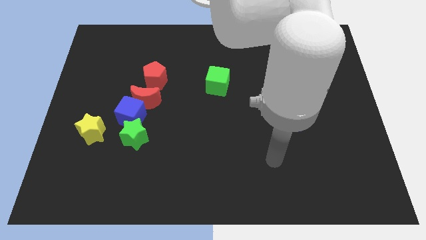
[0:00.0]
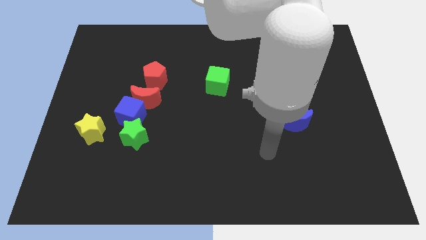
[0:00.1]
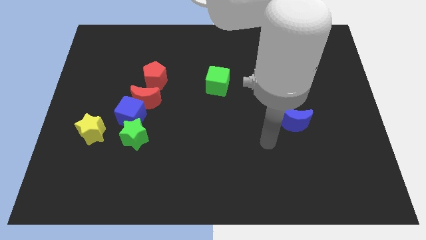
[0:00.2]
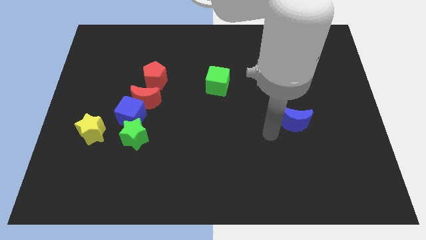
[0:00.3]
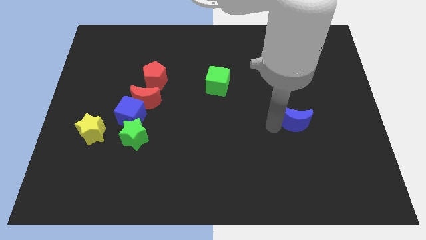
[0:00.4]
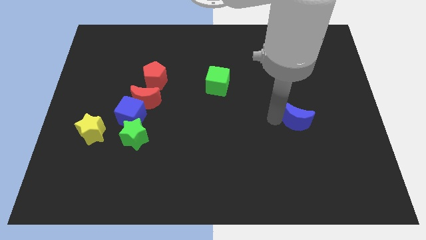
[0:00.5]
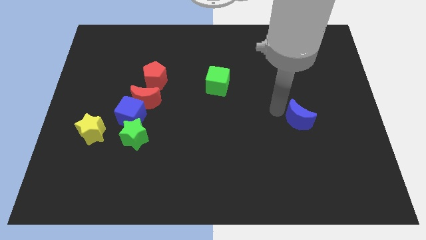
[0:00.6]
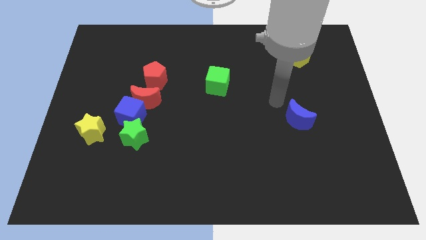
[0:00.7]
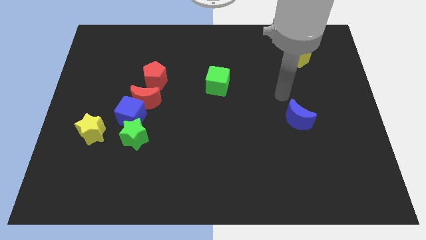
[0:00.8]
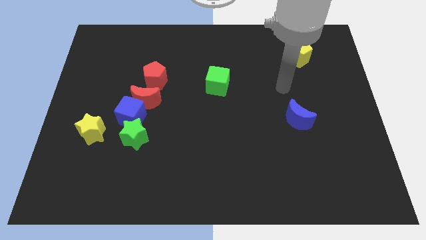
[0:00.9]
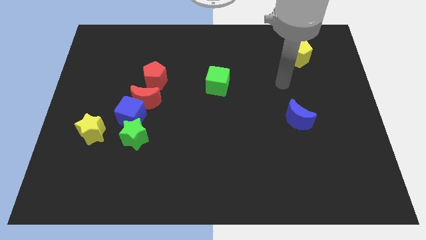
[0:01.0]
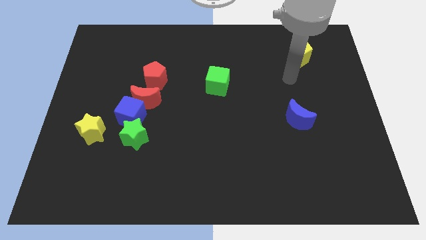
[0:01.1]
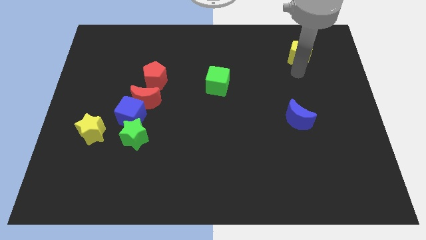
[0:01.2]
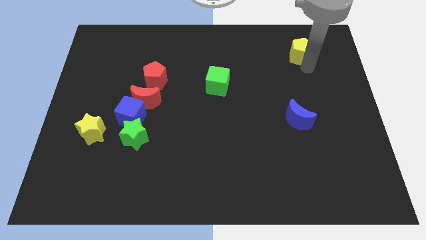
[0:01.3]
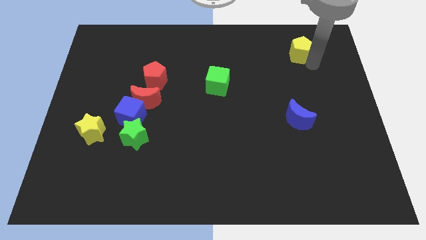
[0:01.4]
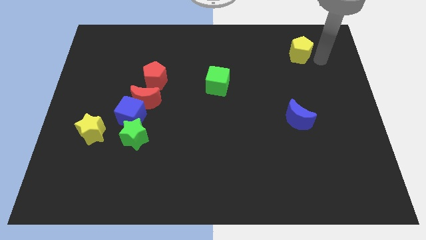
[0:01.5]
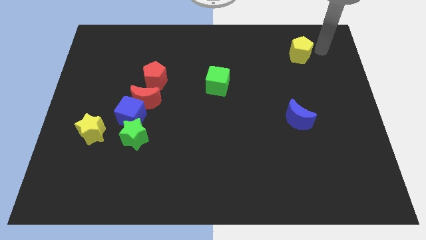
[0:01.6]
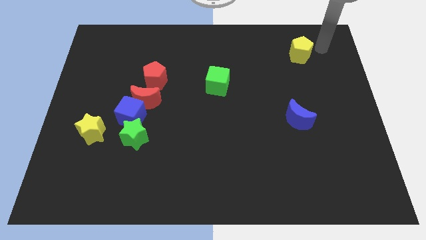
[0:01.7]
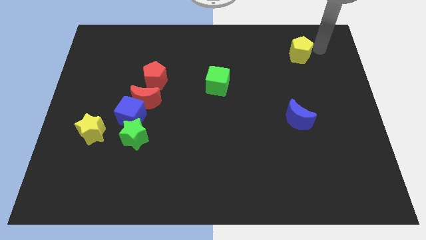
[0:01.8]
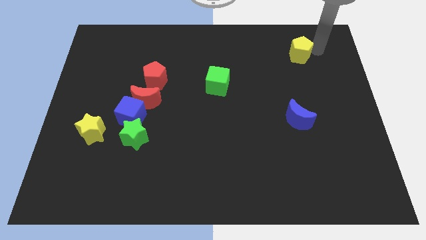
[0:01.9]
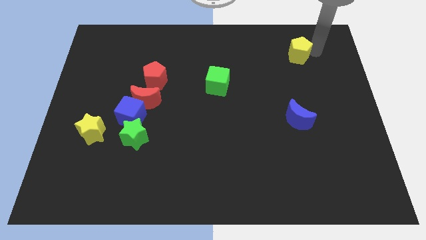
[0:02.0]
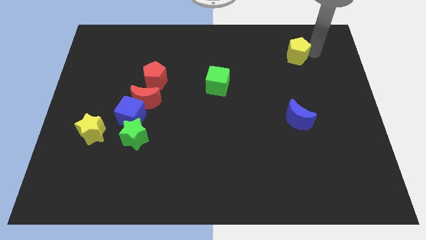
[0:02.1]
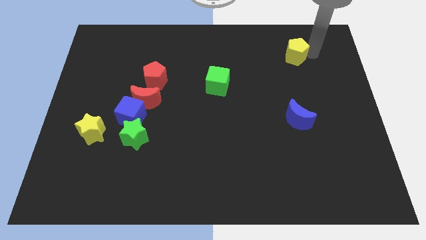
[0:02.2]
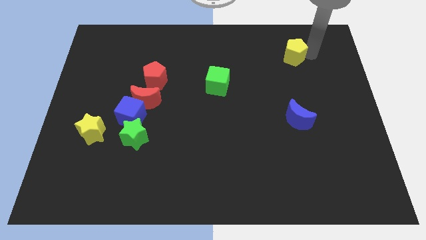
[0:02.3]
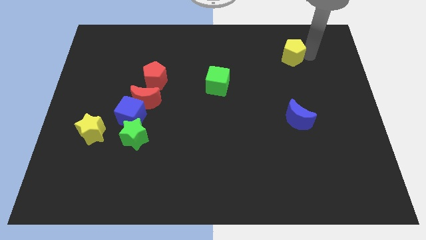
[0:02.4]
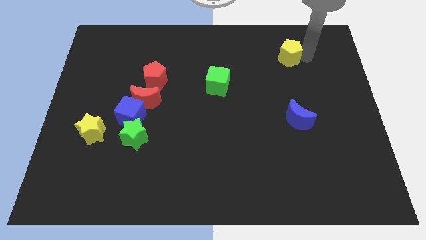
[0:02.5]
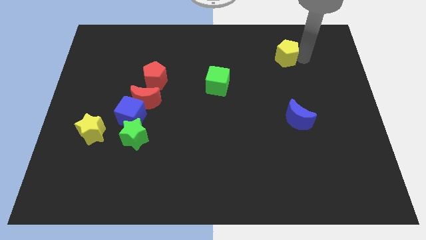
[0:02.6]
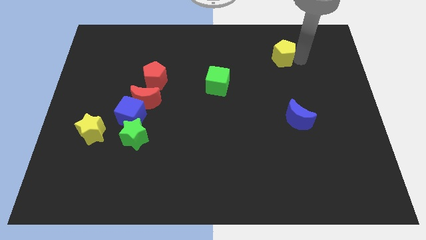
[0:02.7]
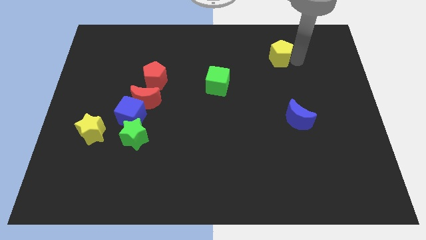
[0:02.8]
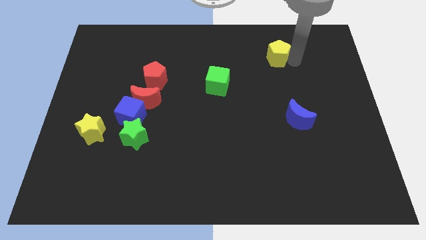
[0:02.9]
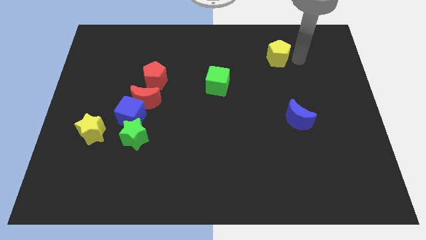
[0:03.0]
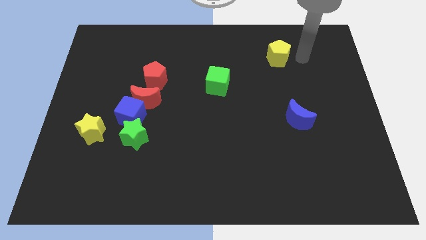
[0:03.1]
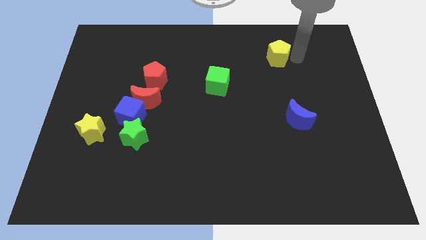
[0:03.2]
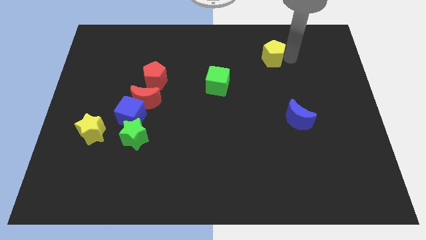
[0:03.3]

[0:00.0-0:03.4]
slightly push the yellow pentagon to the left

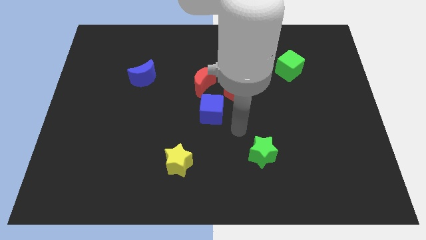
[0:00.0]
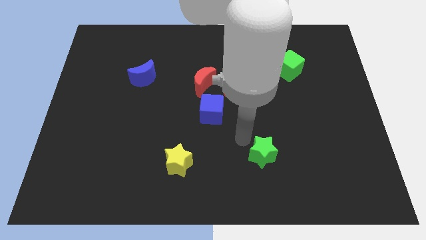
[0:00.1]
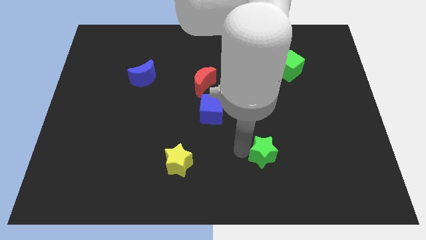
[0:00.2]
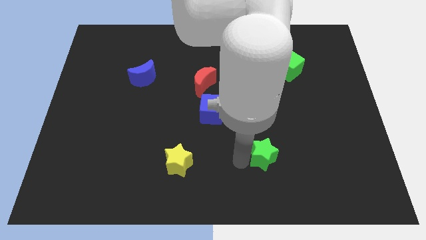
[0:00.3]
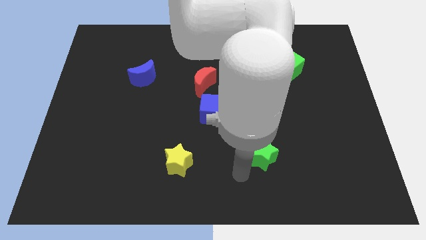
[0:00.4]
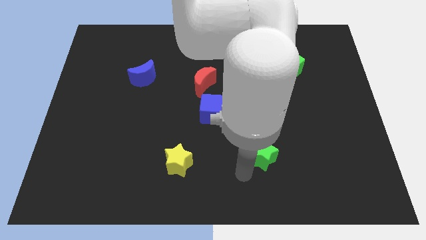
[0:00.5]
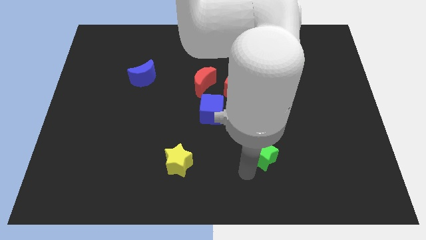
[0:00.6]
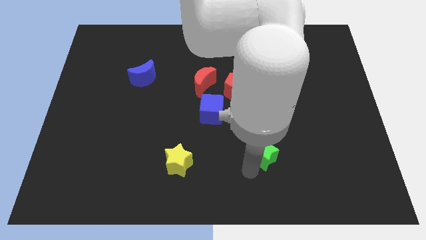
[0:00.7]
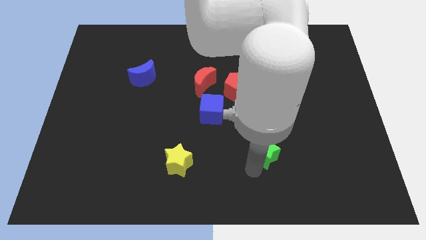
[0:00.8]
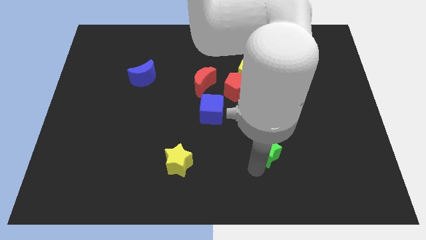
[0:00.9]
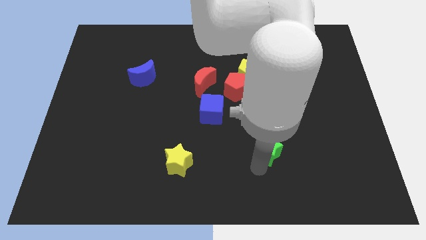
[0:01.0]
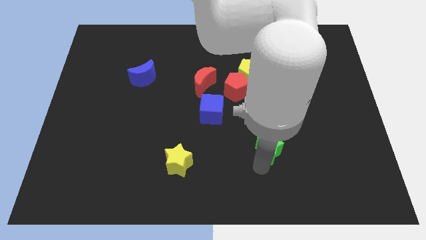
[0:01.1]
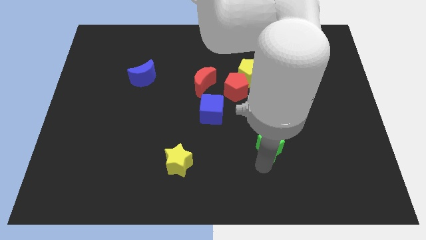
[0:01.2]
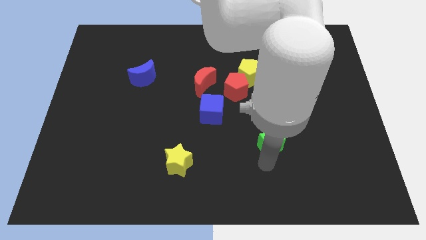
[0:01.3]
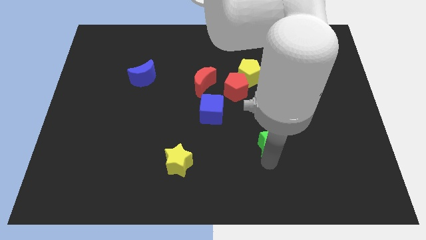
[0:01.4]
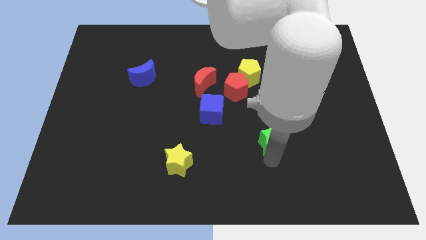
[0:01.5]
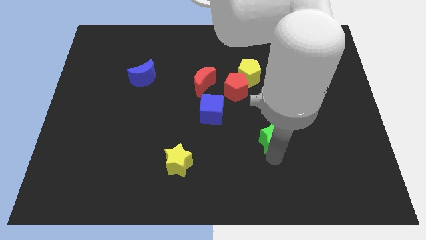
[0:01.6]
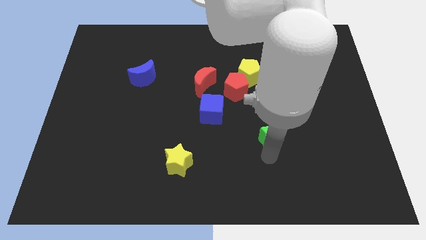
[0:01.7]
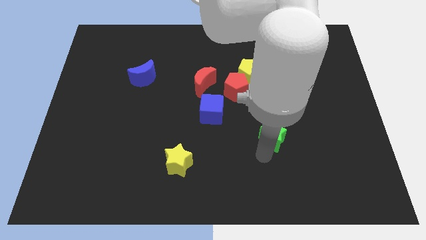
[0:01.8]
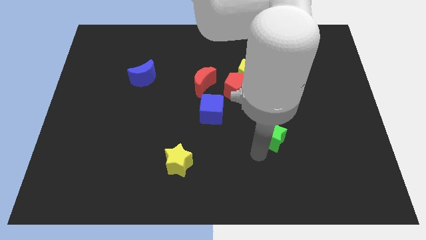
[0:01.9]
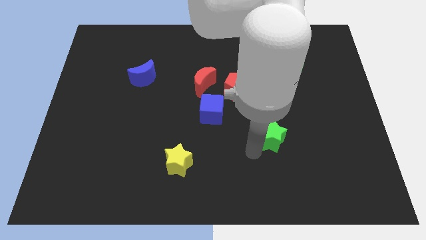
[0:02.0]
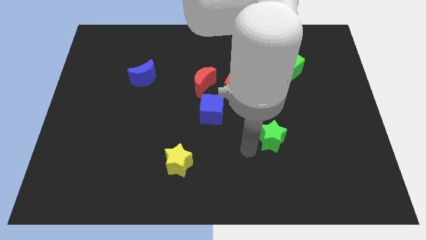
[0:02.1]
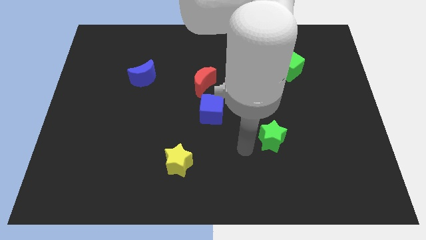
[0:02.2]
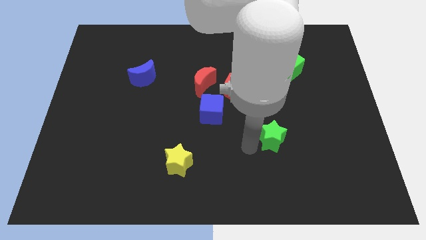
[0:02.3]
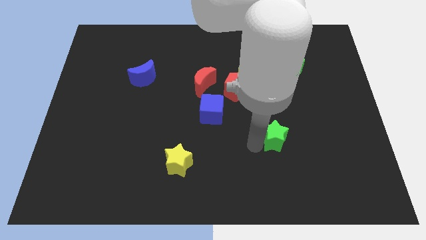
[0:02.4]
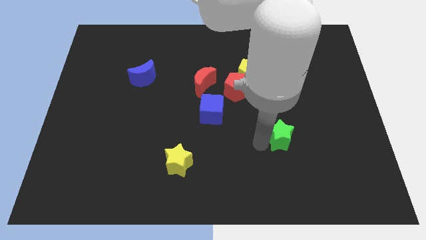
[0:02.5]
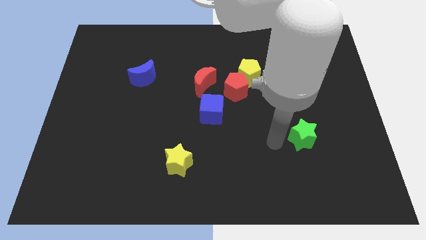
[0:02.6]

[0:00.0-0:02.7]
push the green star a bit up and to the right diagonally

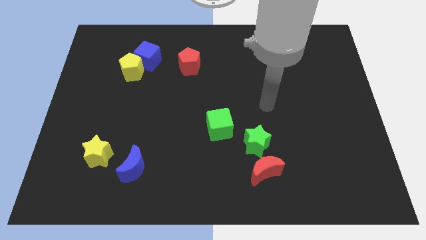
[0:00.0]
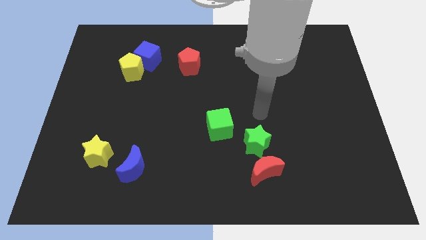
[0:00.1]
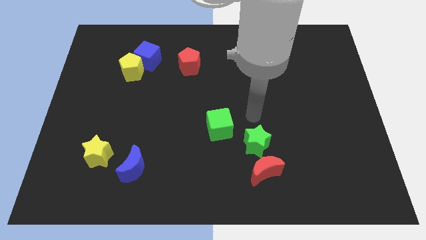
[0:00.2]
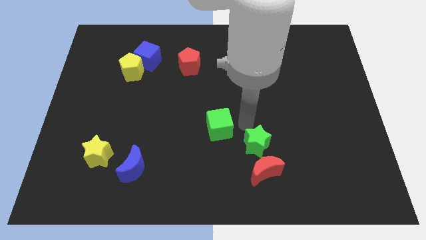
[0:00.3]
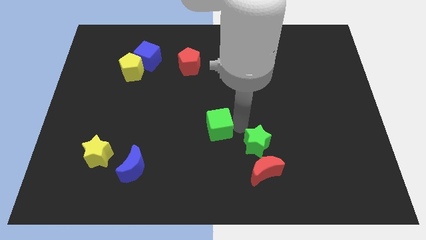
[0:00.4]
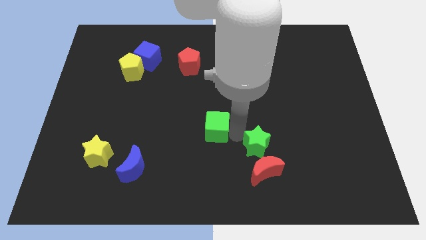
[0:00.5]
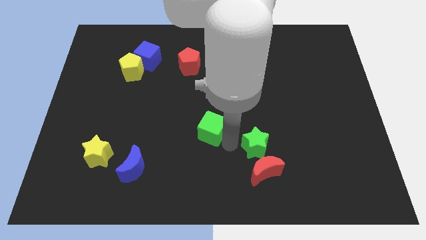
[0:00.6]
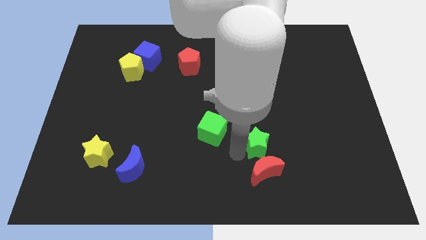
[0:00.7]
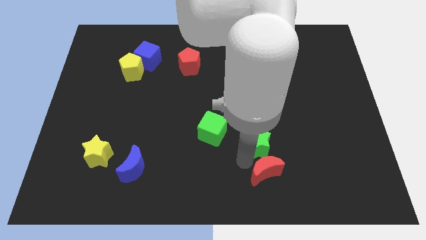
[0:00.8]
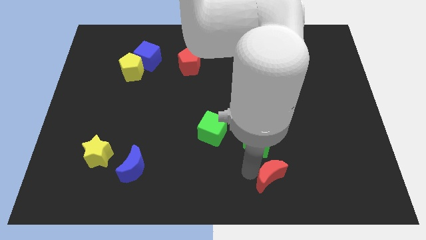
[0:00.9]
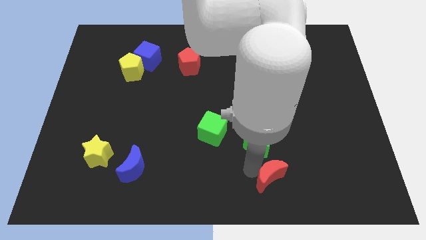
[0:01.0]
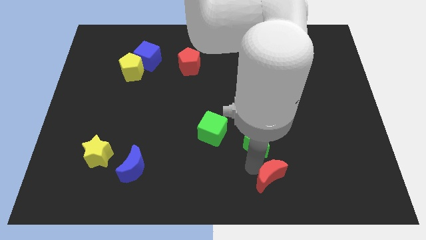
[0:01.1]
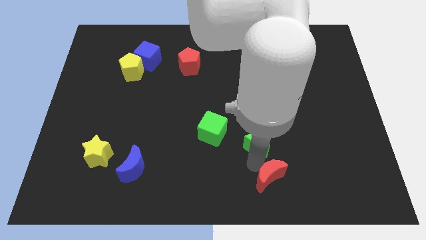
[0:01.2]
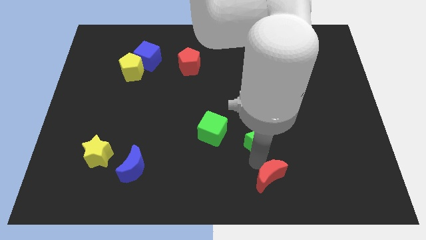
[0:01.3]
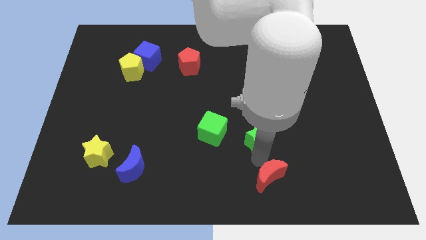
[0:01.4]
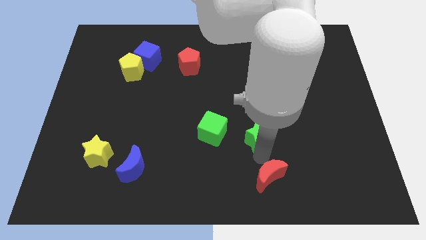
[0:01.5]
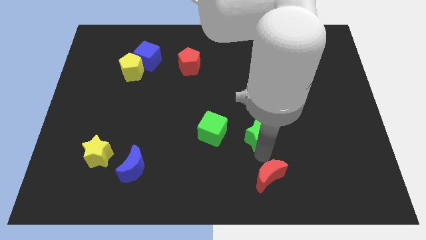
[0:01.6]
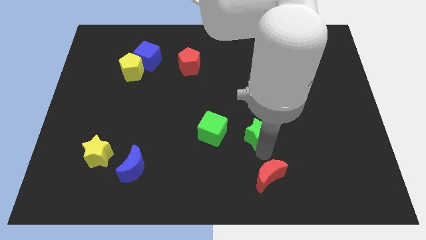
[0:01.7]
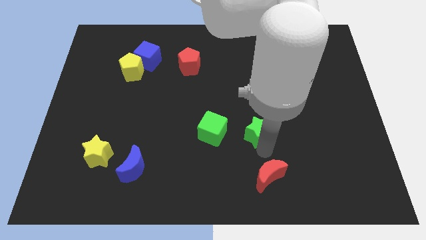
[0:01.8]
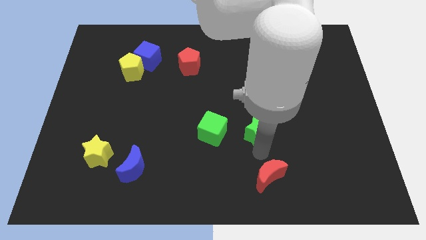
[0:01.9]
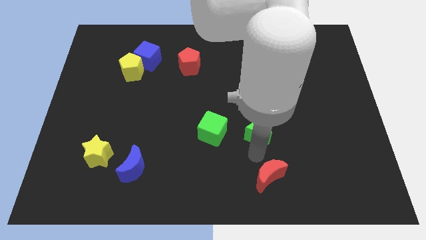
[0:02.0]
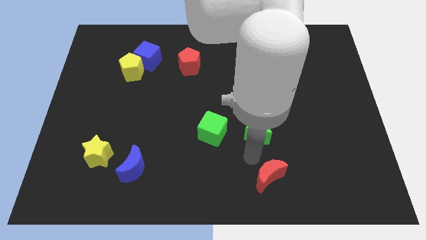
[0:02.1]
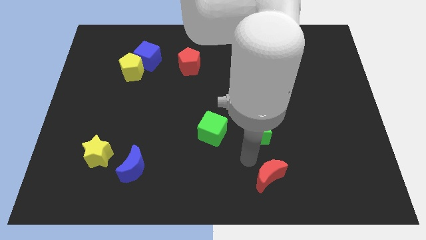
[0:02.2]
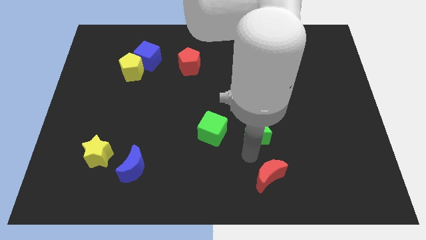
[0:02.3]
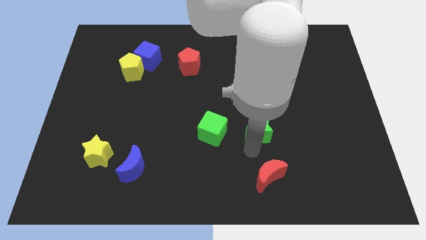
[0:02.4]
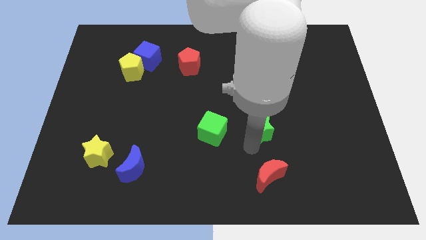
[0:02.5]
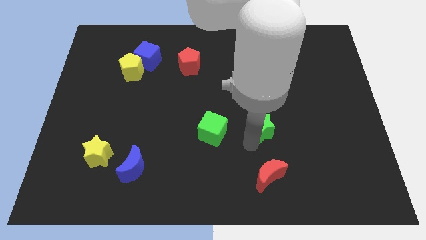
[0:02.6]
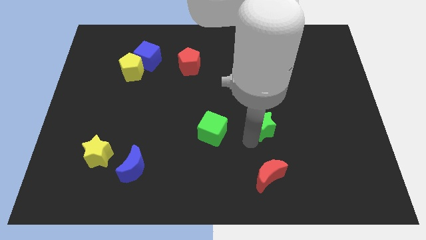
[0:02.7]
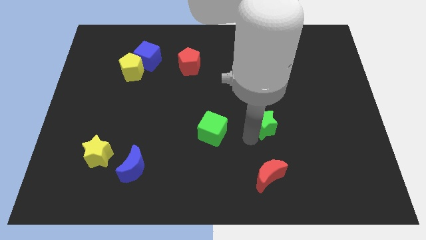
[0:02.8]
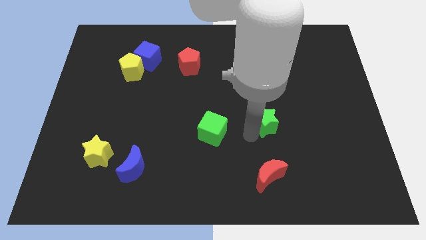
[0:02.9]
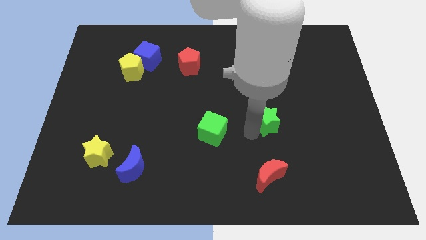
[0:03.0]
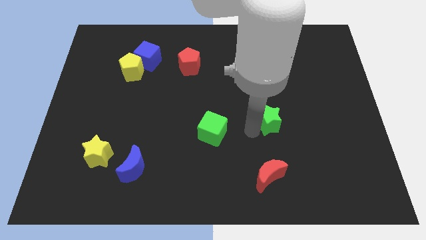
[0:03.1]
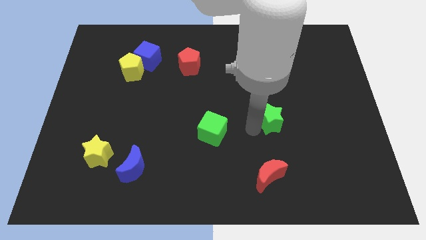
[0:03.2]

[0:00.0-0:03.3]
move the green star a bit upwards and then to the right
